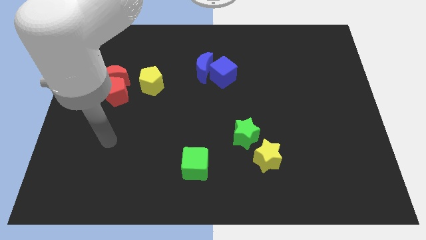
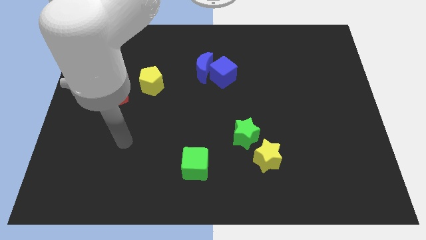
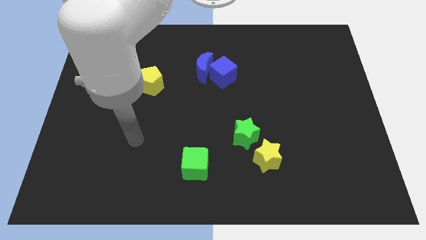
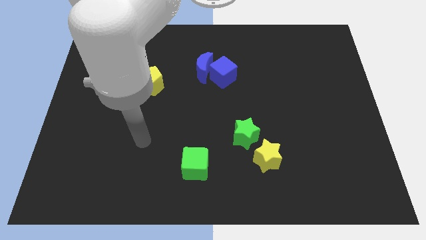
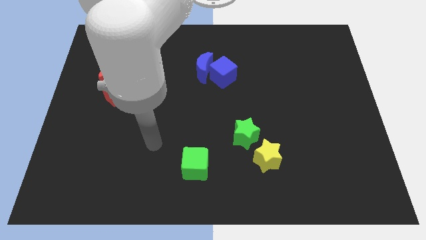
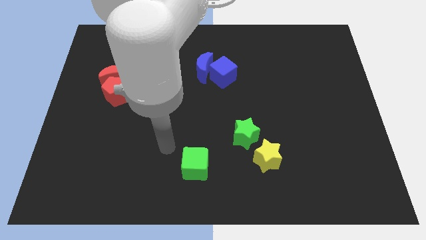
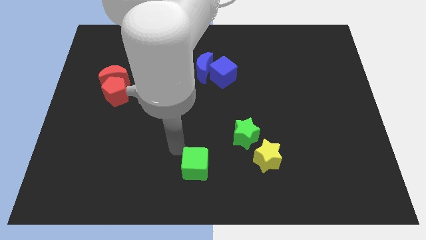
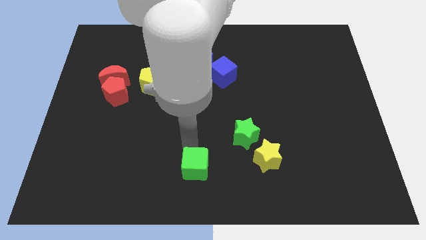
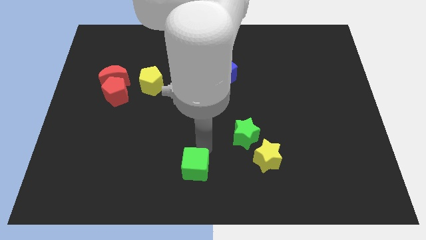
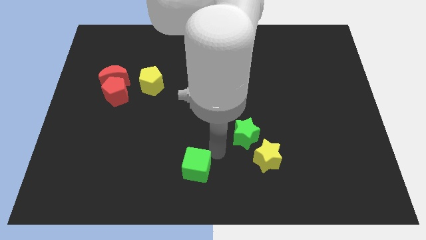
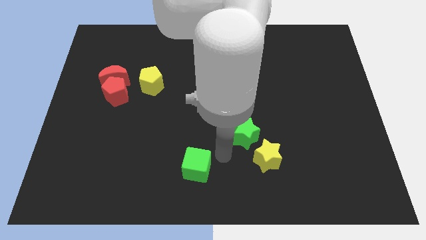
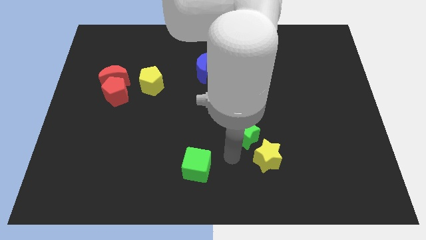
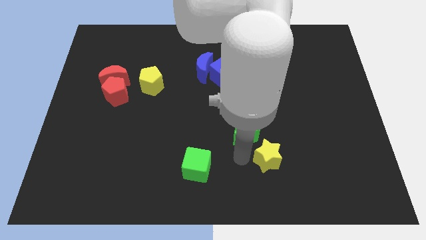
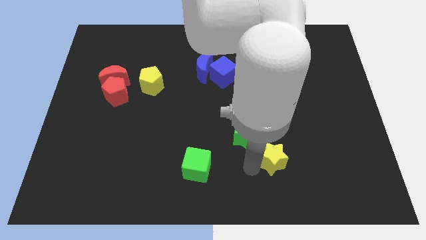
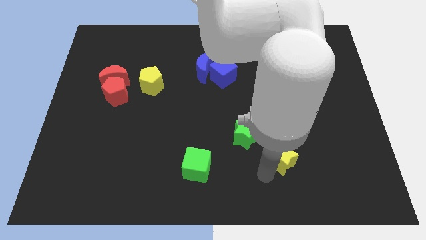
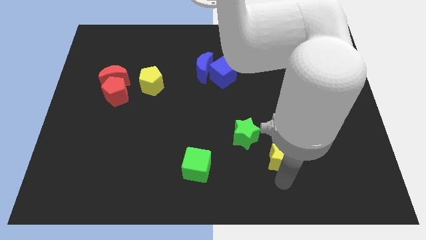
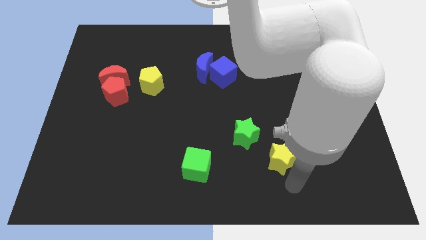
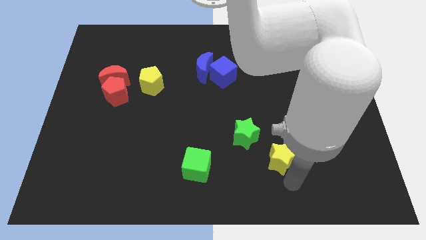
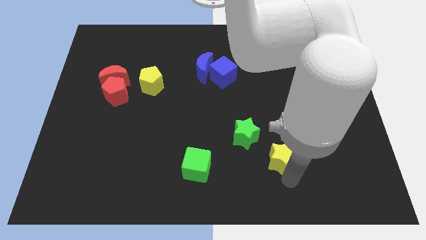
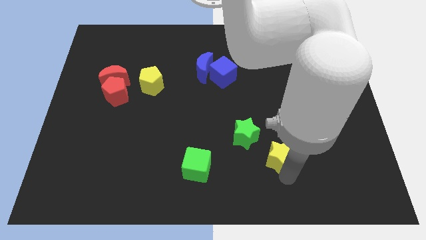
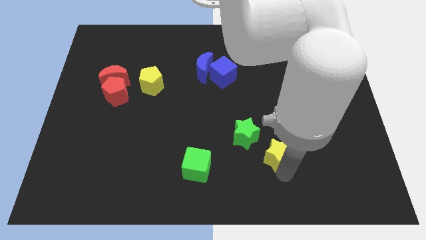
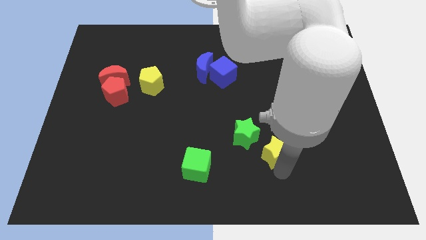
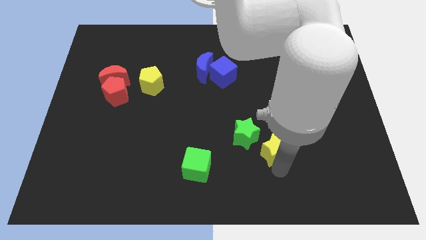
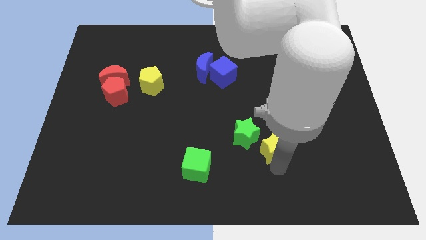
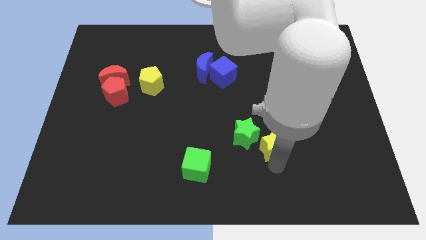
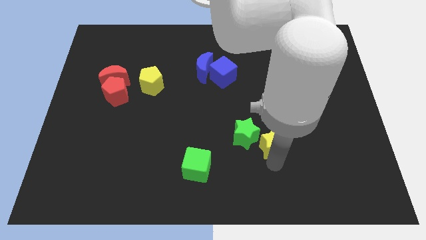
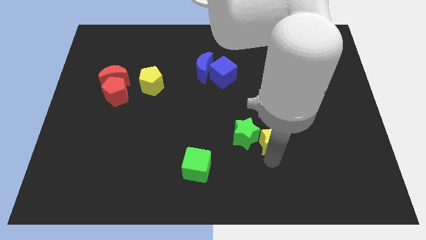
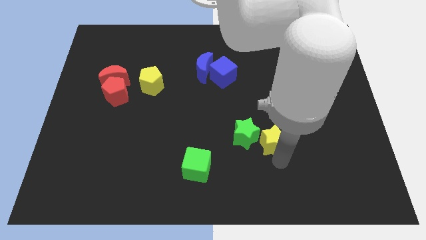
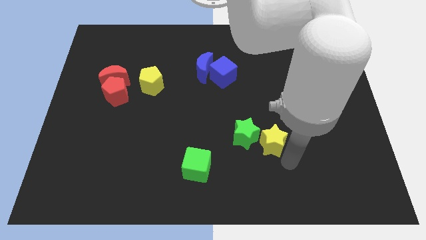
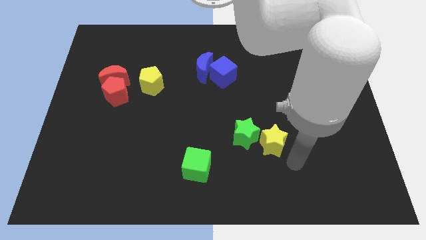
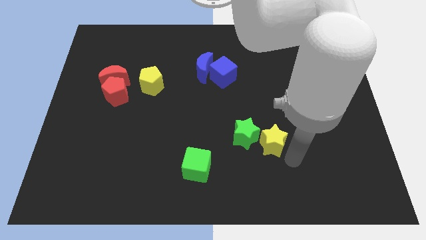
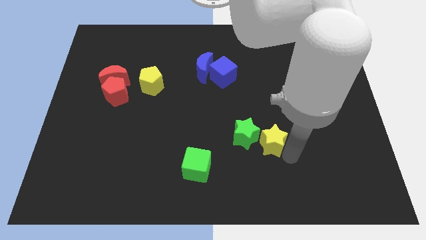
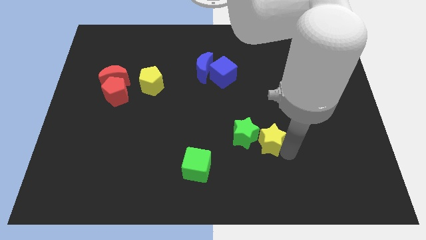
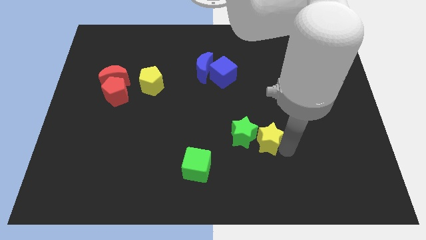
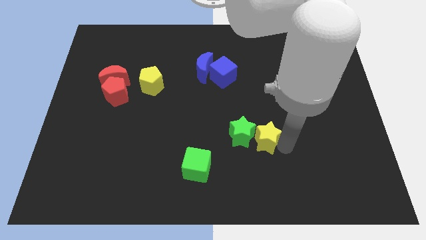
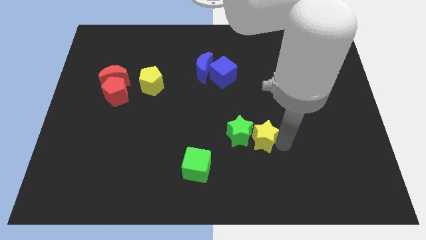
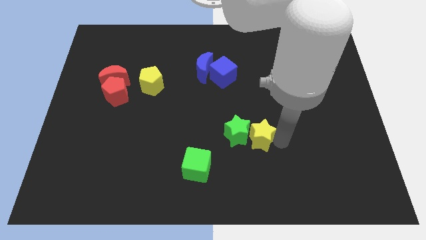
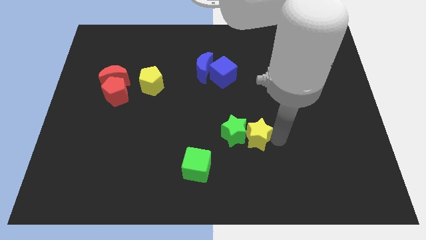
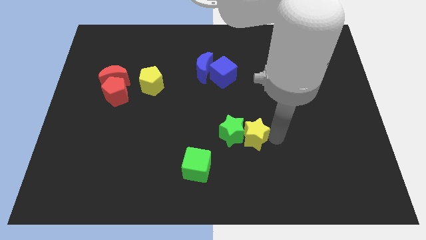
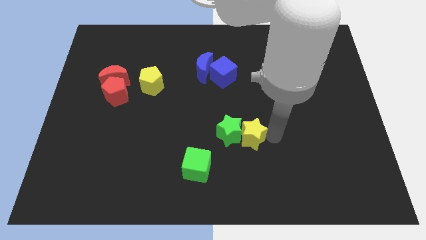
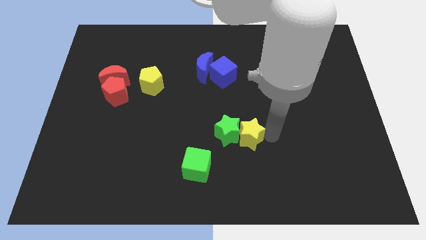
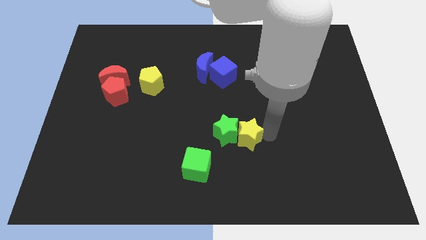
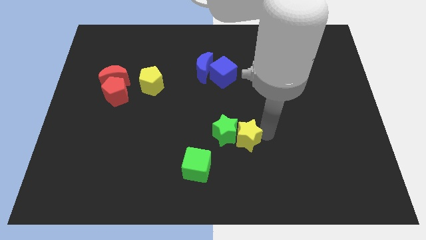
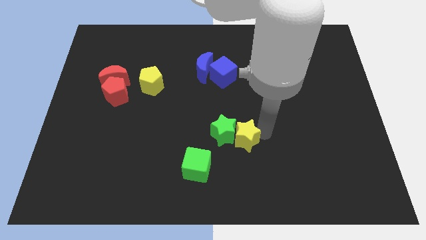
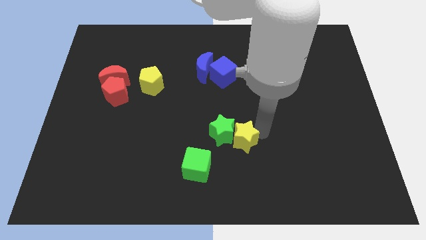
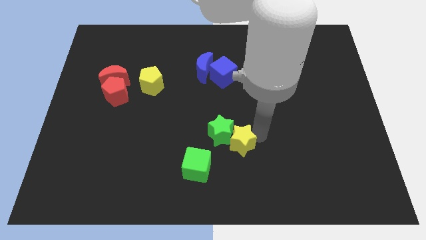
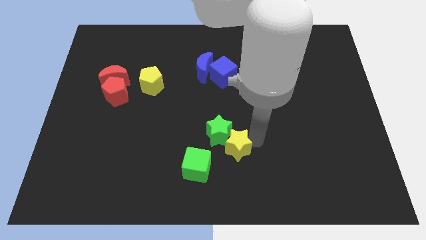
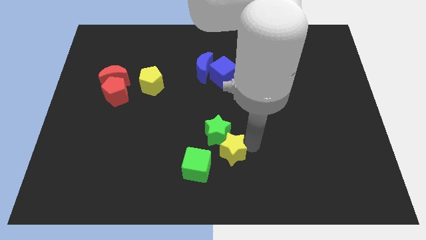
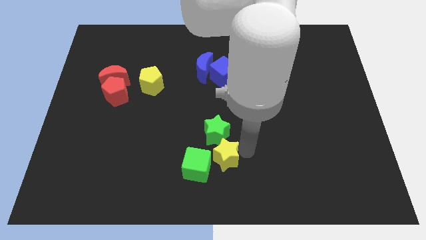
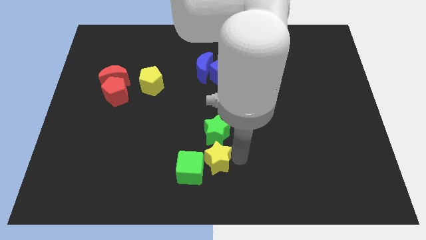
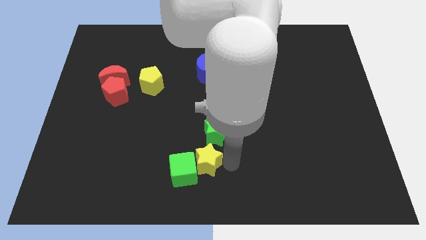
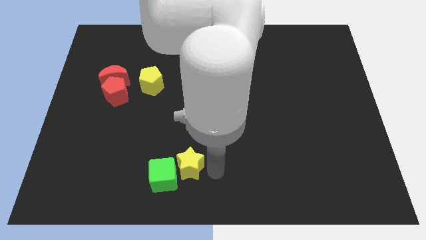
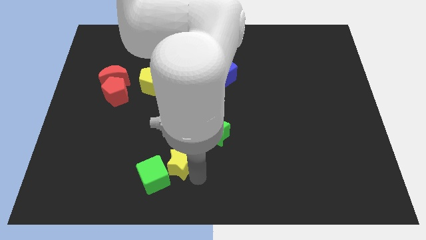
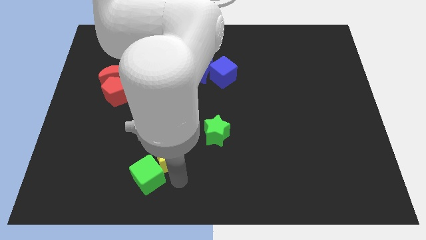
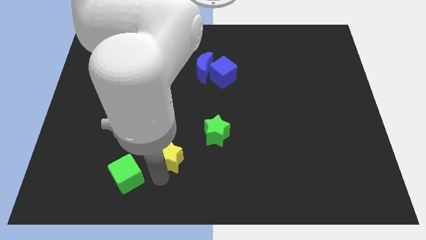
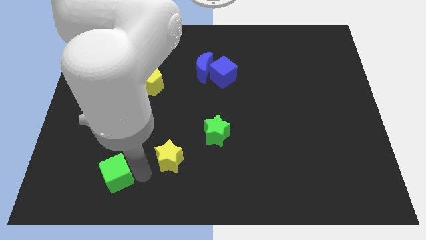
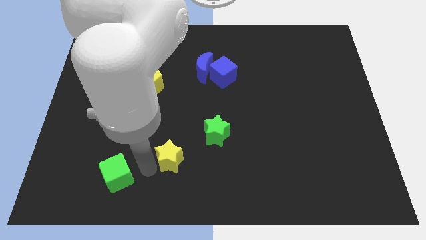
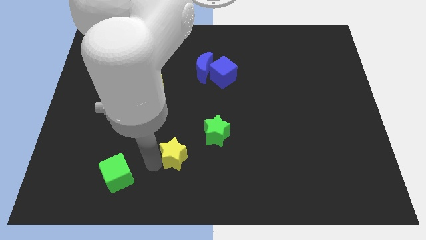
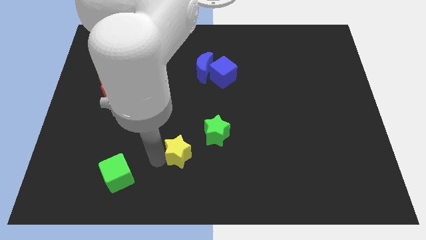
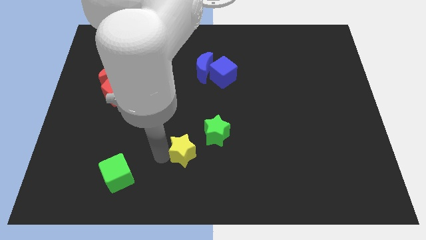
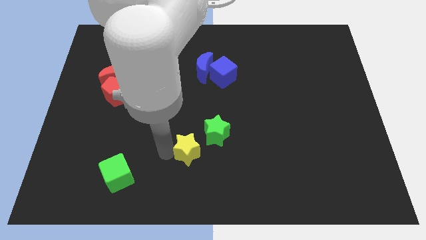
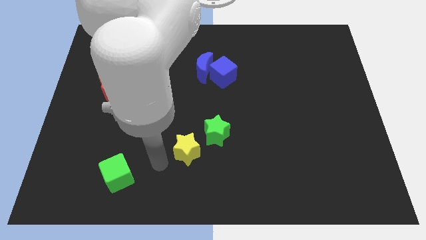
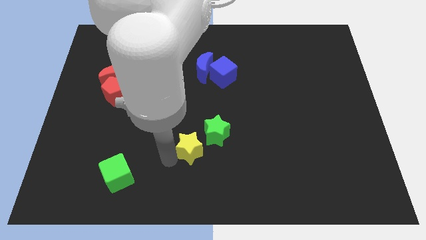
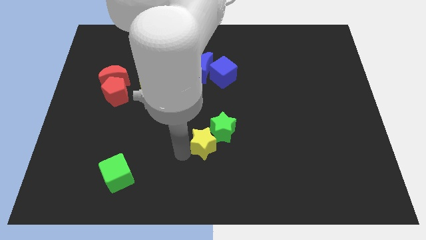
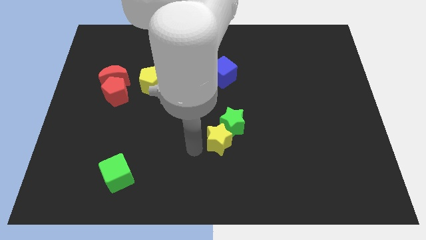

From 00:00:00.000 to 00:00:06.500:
put the yellow star to the center of the board
